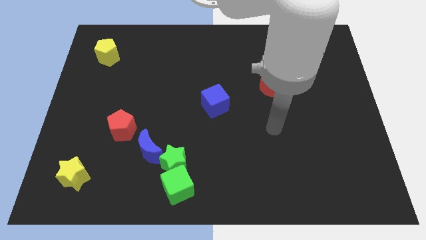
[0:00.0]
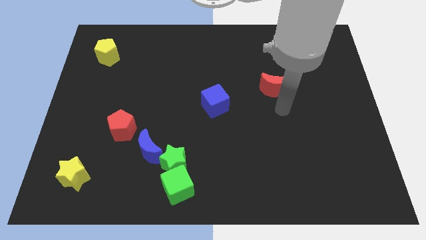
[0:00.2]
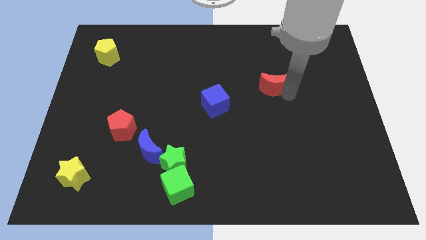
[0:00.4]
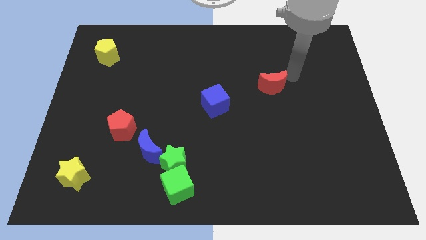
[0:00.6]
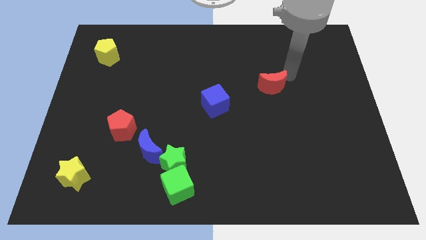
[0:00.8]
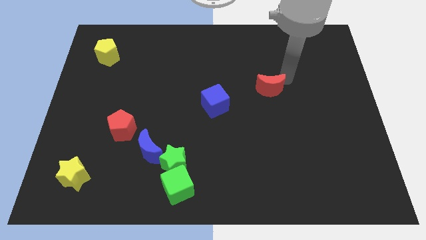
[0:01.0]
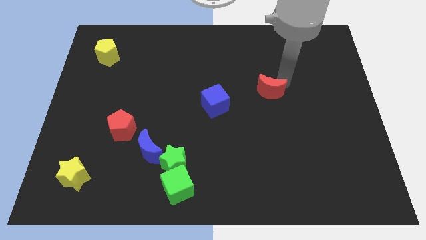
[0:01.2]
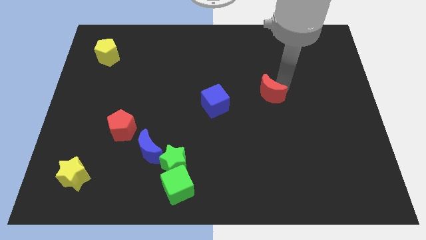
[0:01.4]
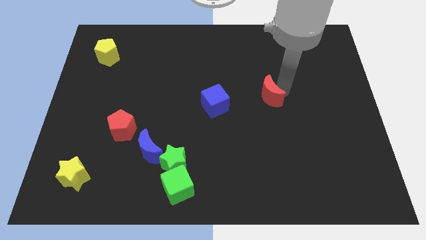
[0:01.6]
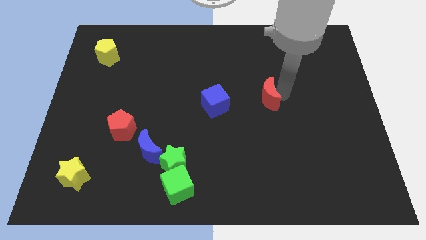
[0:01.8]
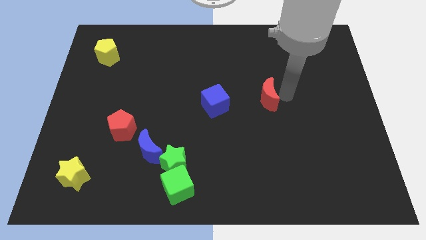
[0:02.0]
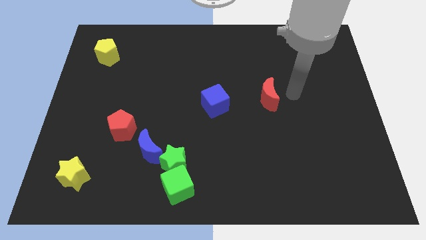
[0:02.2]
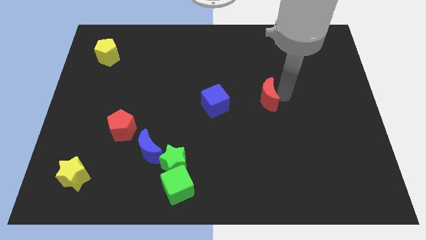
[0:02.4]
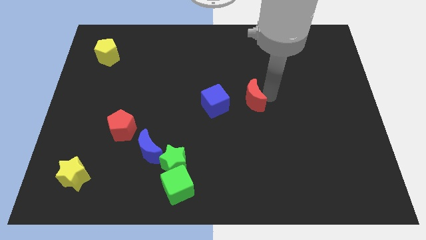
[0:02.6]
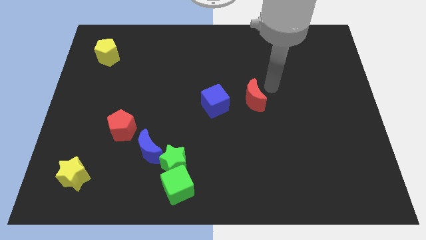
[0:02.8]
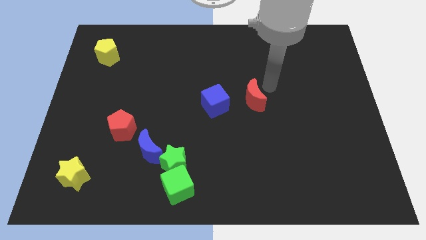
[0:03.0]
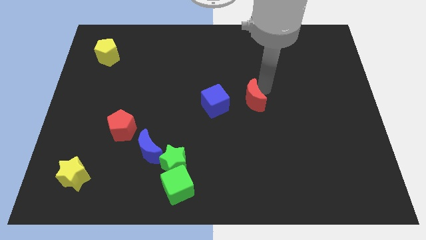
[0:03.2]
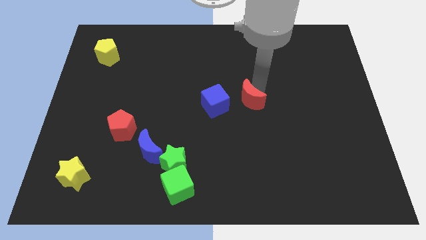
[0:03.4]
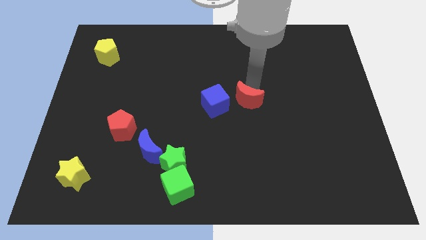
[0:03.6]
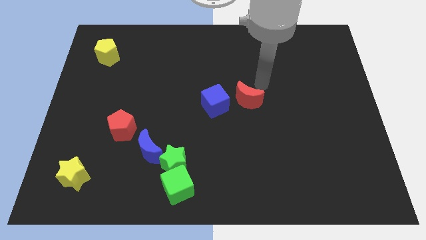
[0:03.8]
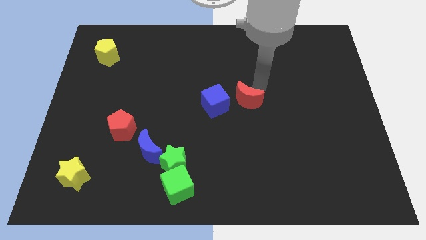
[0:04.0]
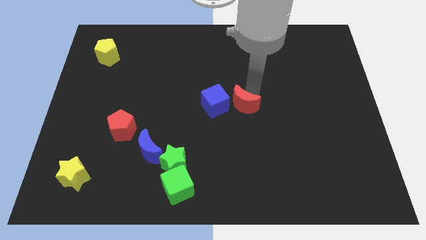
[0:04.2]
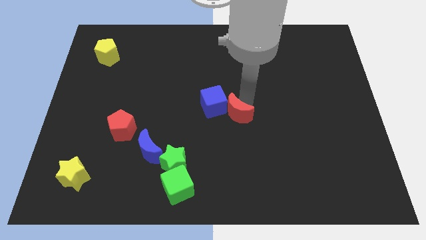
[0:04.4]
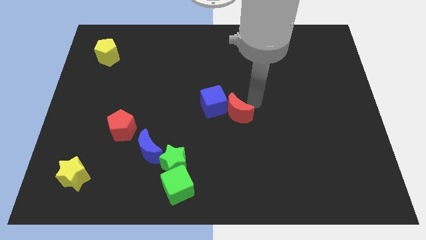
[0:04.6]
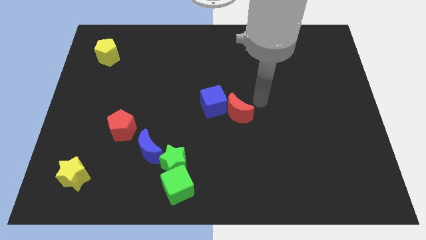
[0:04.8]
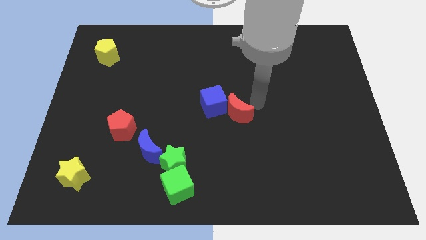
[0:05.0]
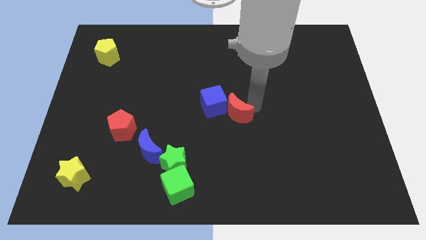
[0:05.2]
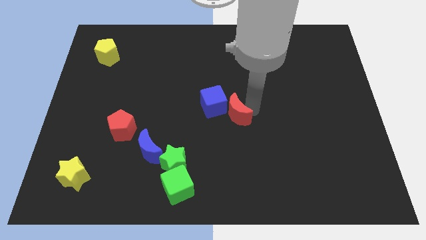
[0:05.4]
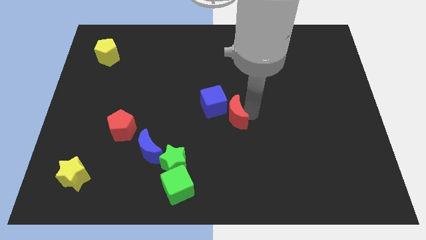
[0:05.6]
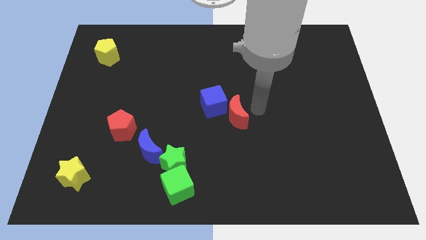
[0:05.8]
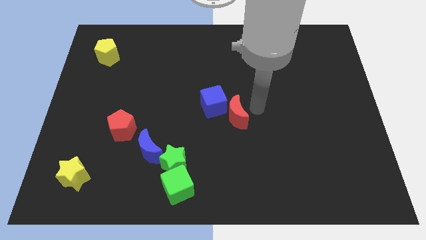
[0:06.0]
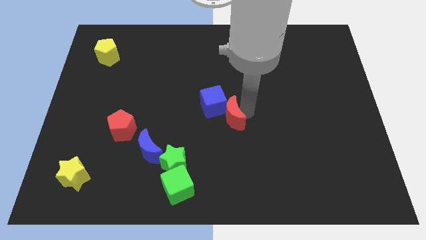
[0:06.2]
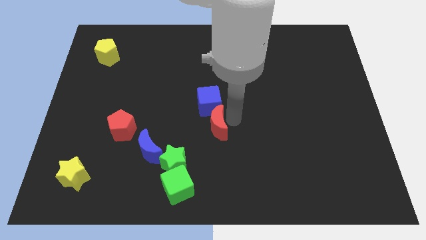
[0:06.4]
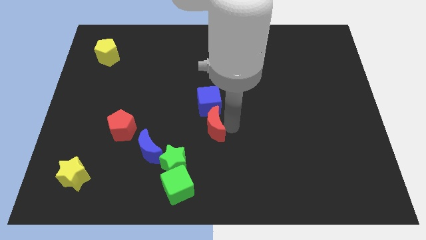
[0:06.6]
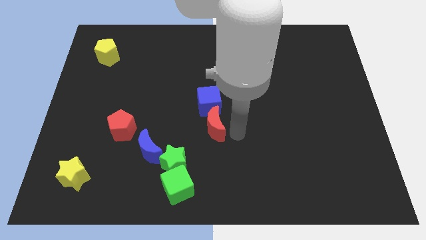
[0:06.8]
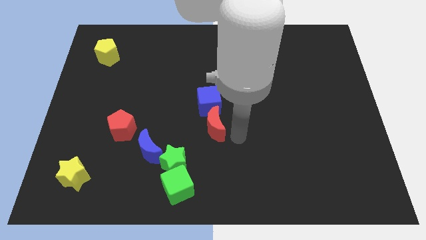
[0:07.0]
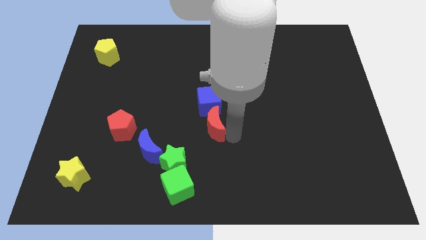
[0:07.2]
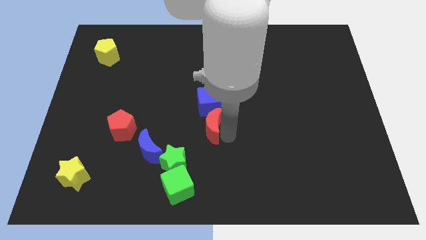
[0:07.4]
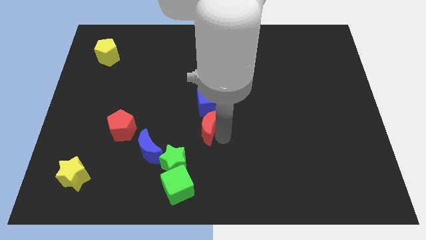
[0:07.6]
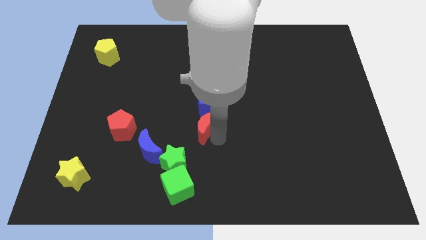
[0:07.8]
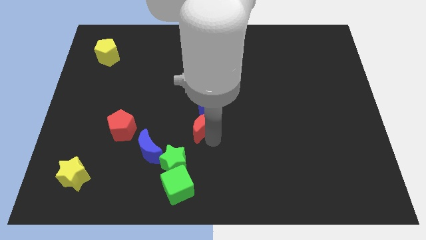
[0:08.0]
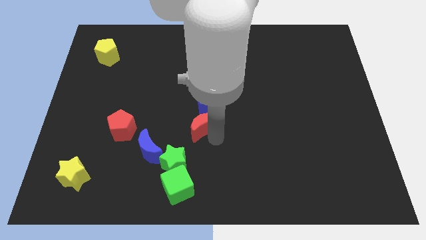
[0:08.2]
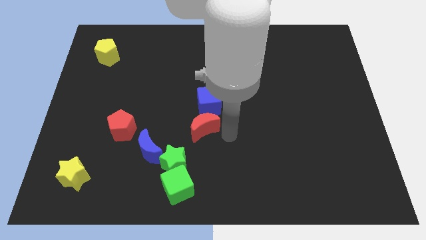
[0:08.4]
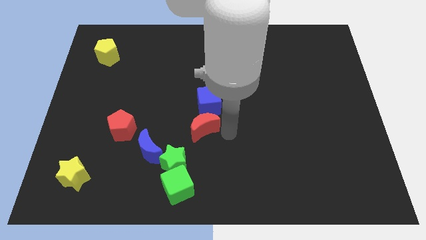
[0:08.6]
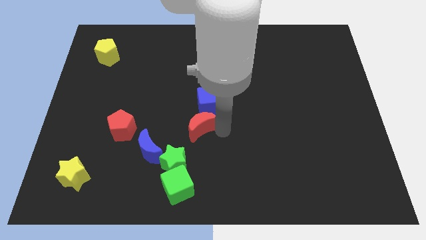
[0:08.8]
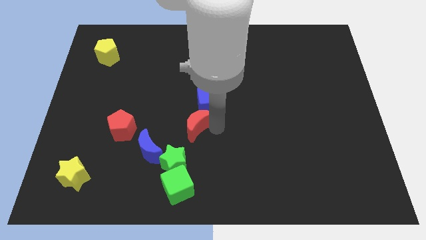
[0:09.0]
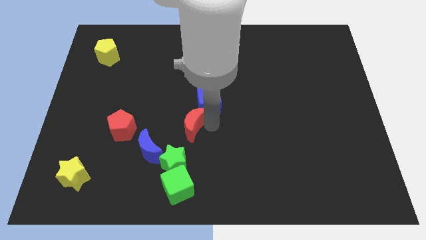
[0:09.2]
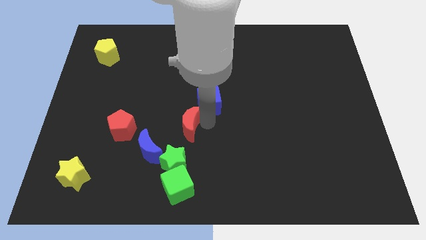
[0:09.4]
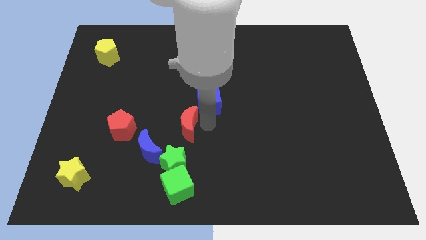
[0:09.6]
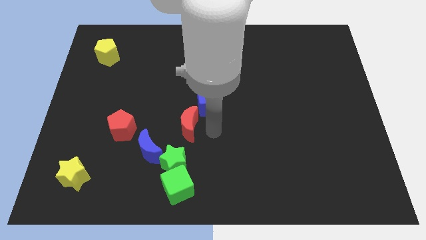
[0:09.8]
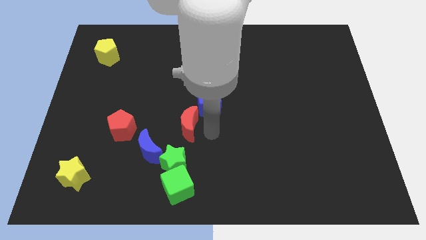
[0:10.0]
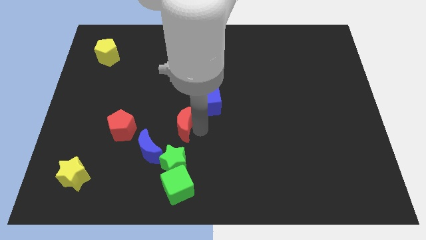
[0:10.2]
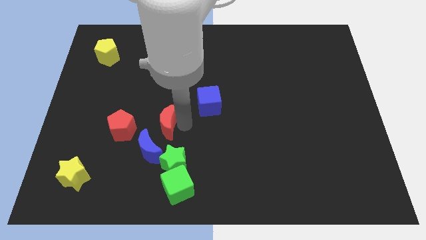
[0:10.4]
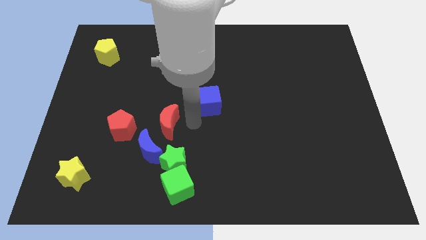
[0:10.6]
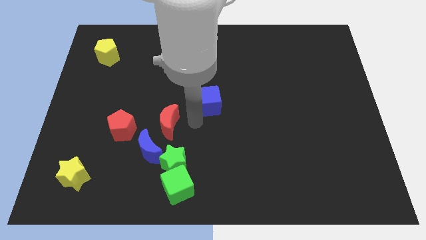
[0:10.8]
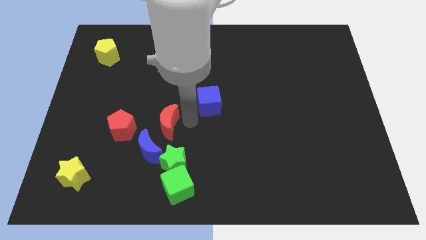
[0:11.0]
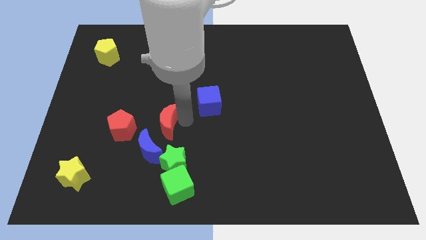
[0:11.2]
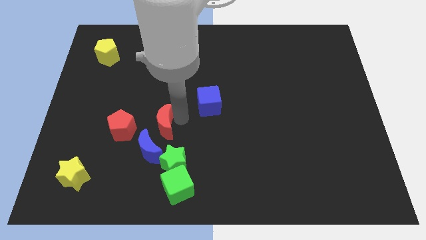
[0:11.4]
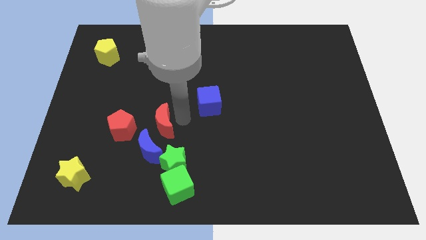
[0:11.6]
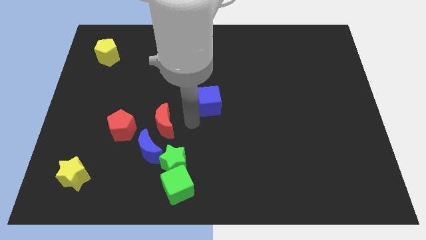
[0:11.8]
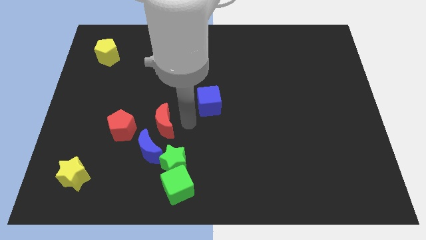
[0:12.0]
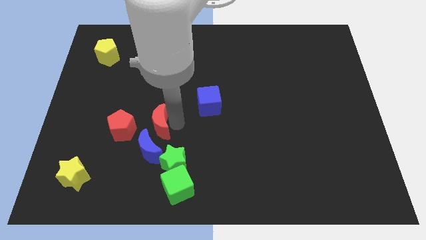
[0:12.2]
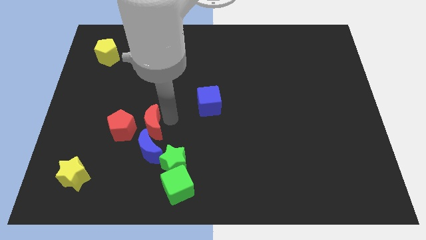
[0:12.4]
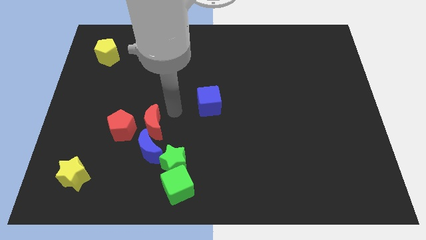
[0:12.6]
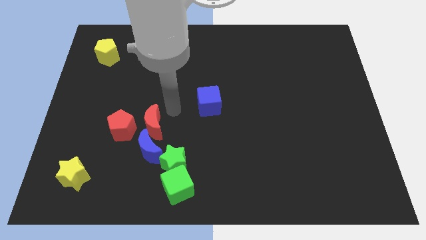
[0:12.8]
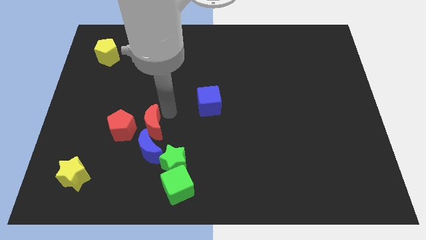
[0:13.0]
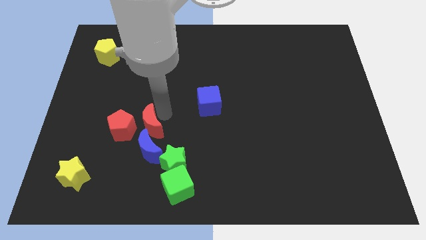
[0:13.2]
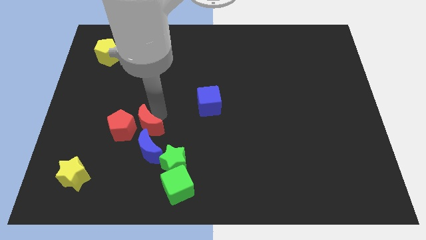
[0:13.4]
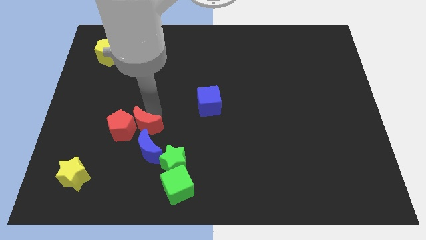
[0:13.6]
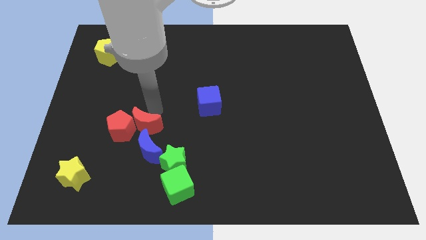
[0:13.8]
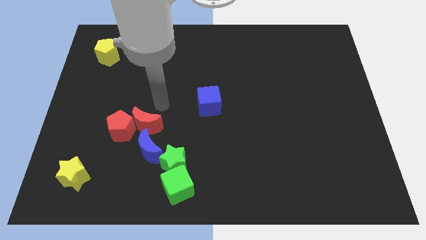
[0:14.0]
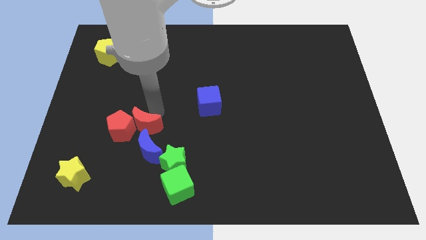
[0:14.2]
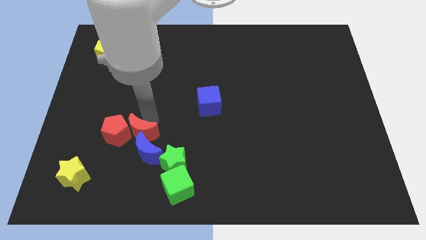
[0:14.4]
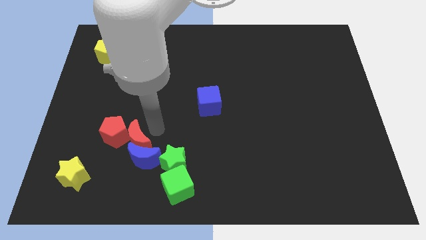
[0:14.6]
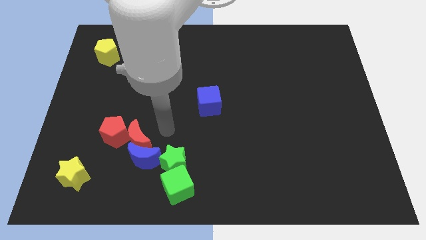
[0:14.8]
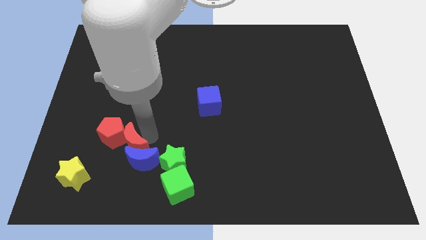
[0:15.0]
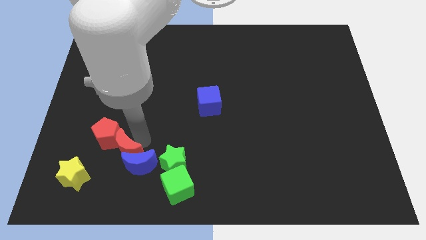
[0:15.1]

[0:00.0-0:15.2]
push the red moon to the left of the blue moon
